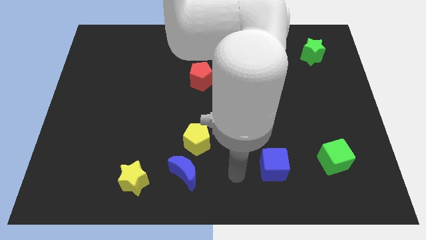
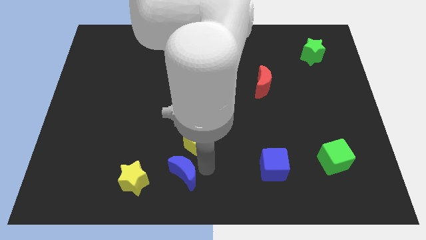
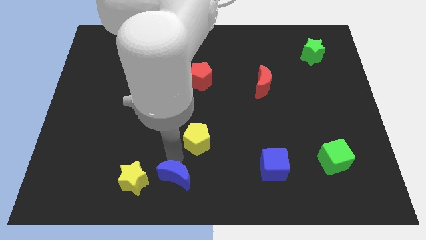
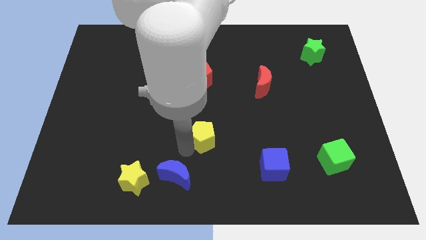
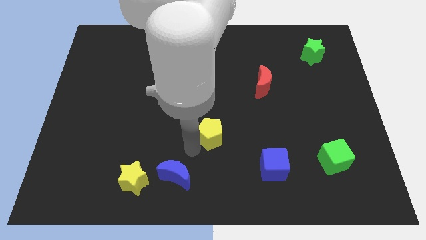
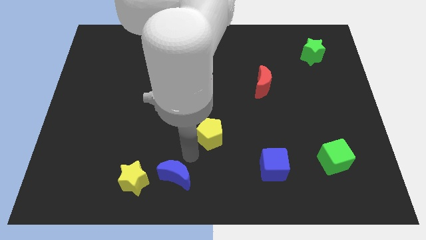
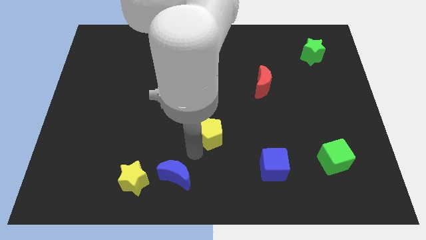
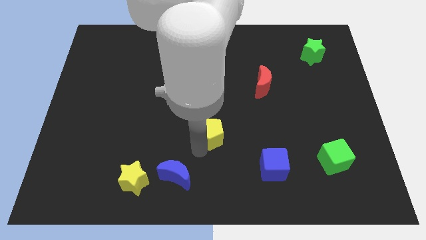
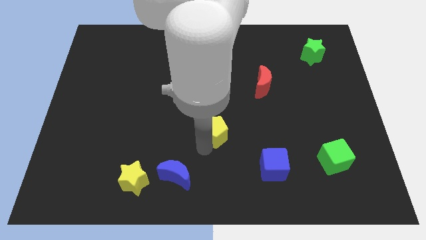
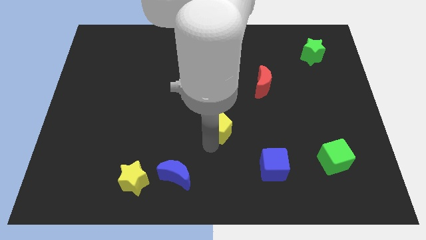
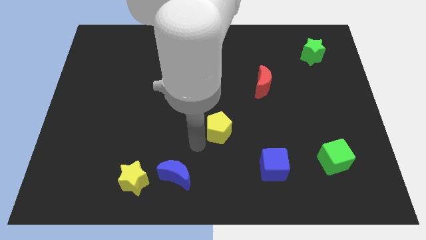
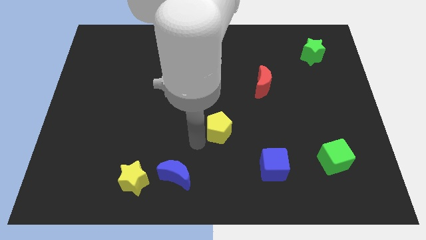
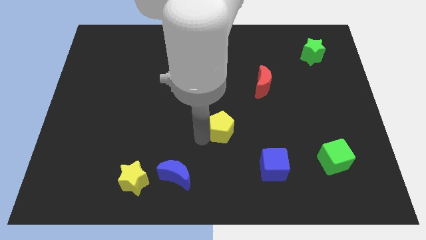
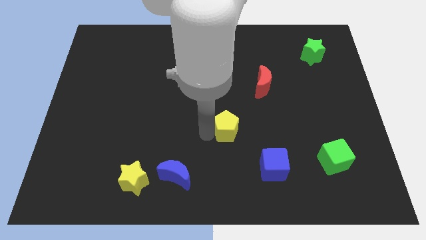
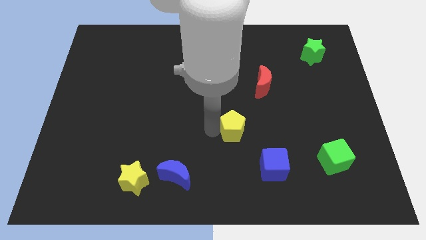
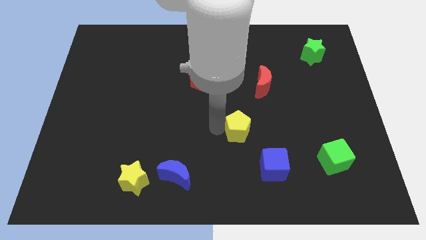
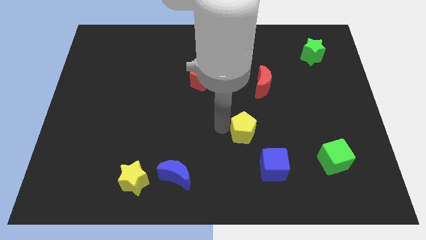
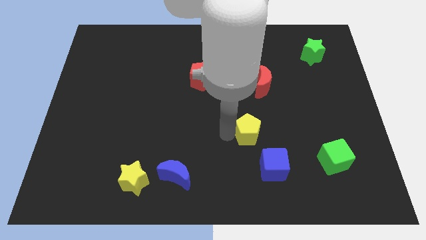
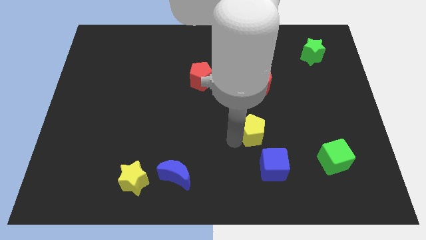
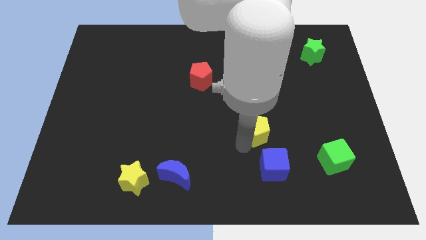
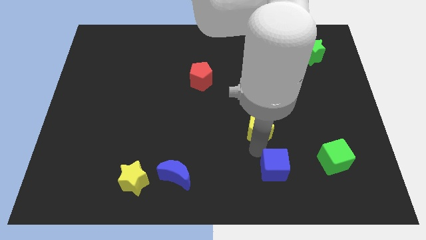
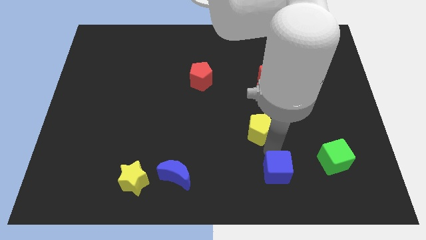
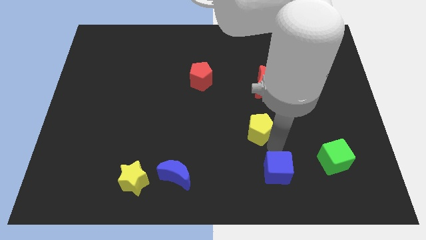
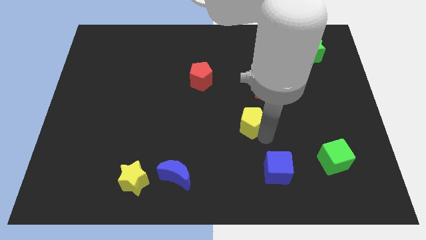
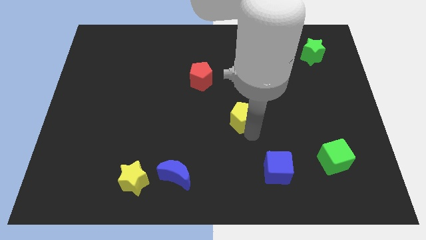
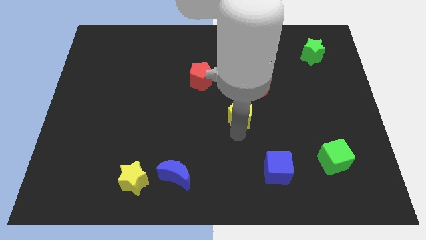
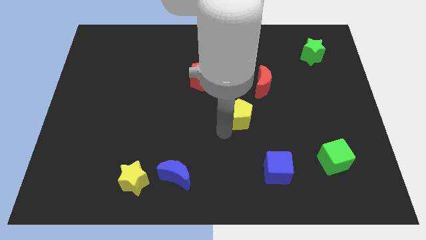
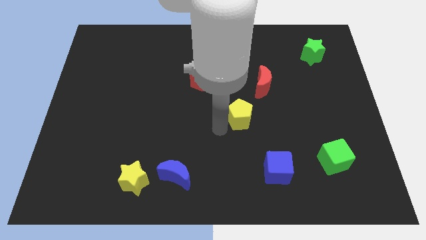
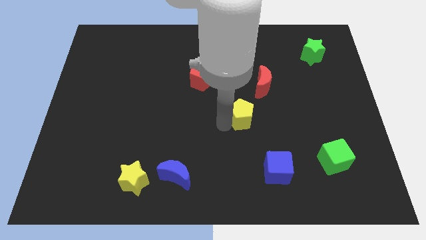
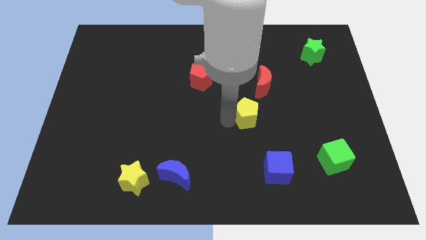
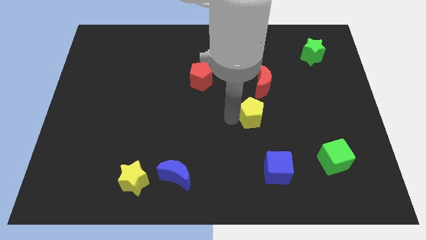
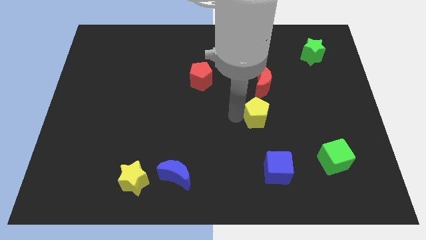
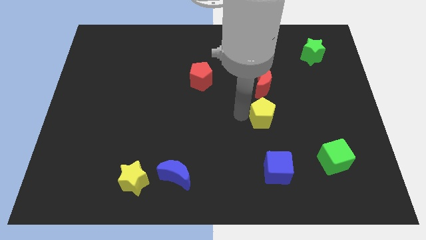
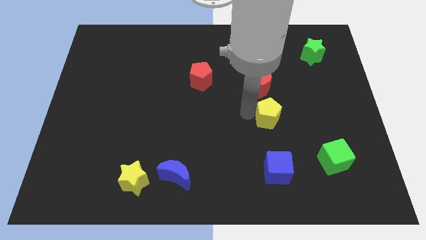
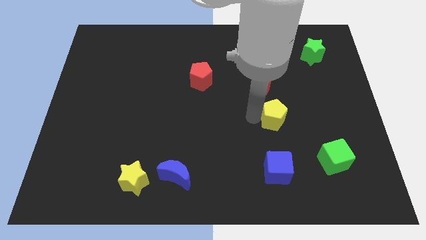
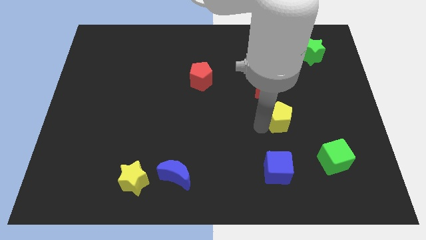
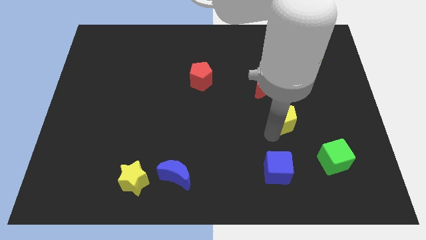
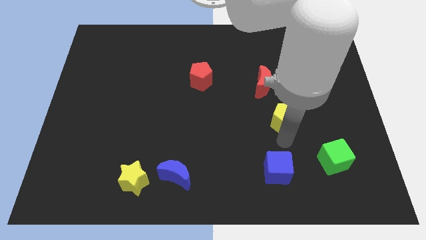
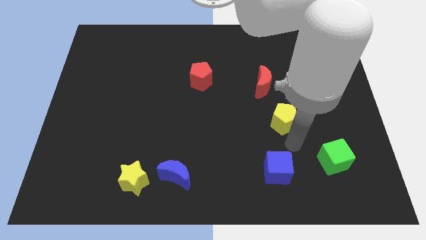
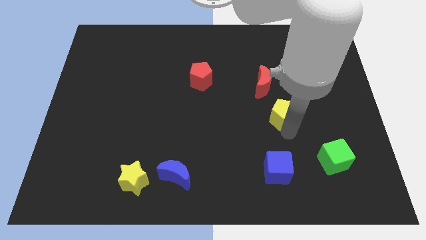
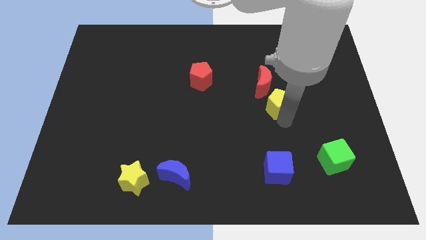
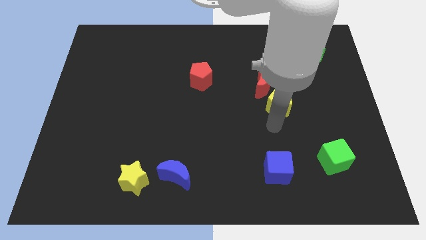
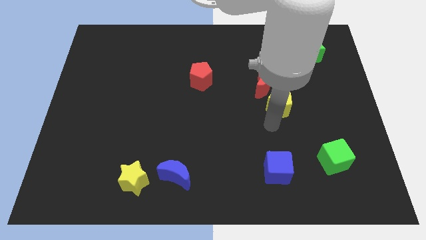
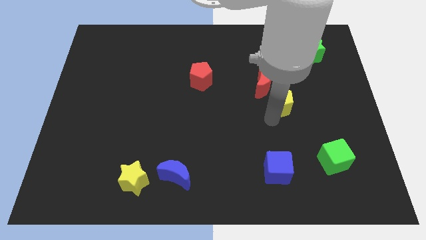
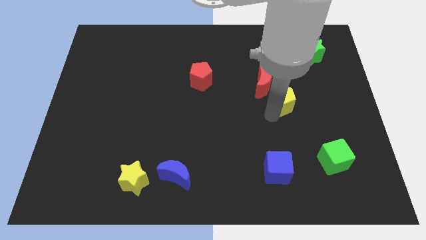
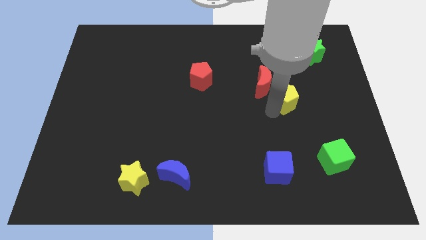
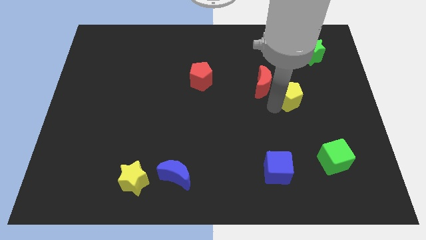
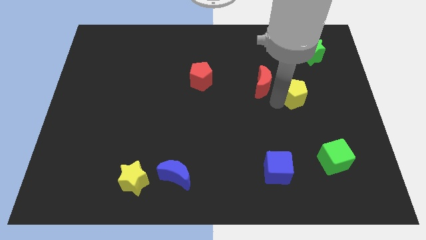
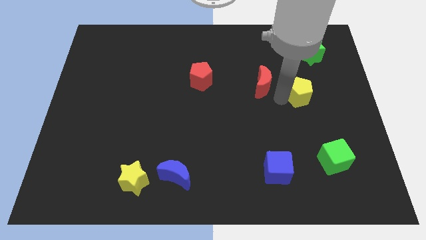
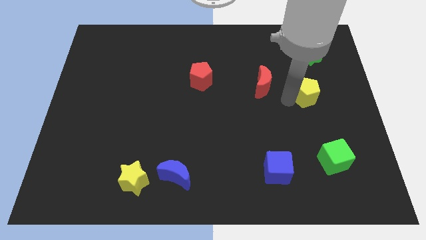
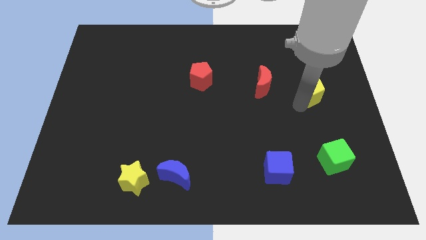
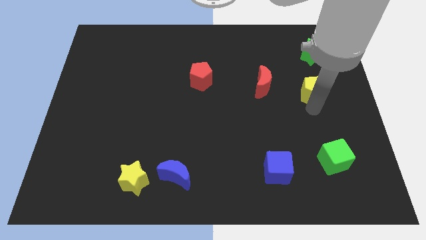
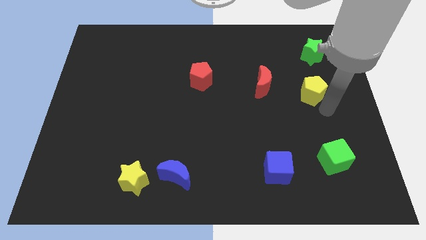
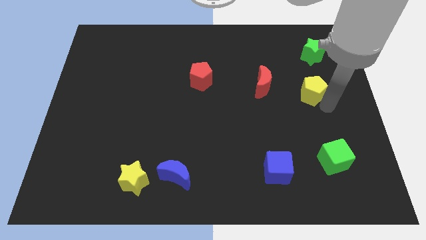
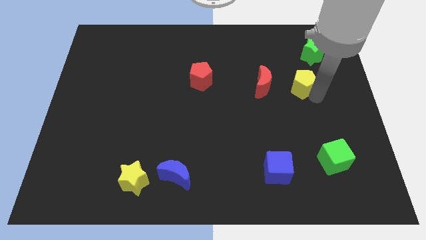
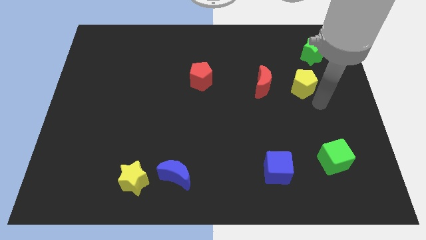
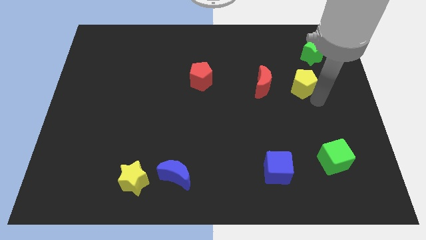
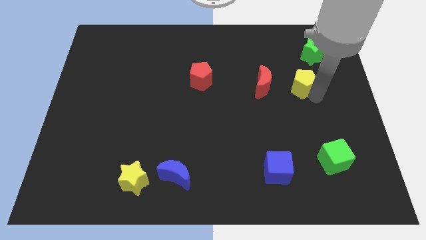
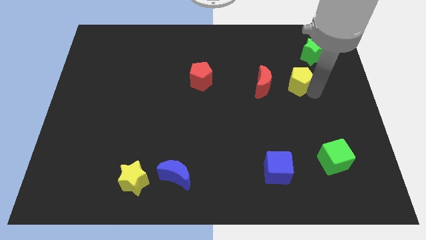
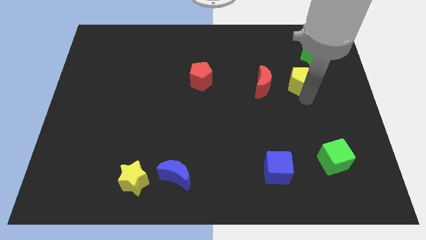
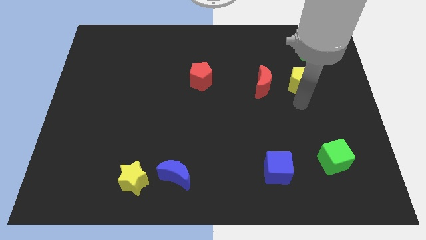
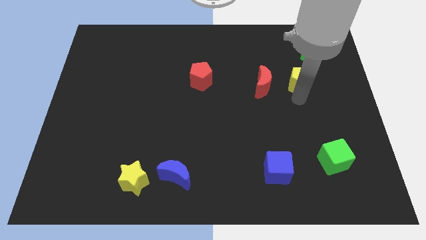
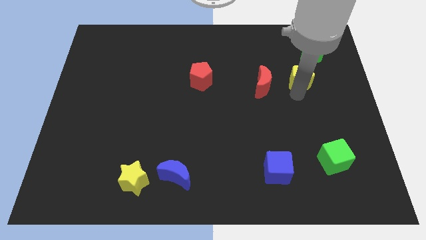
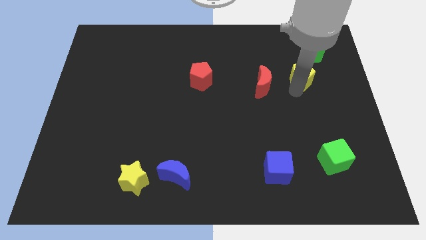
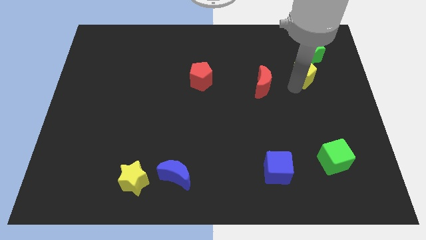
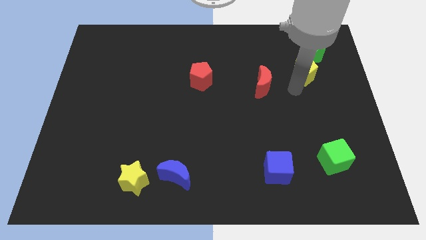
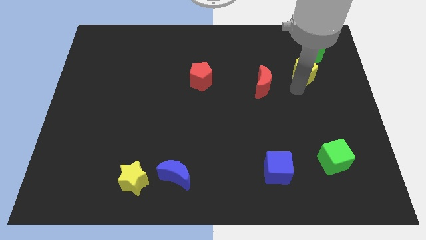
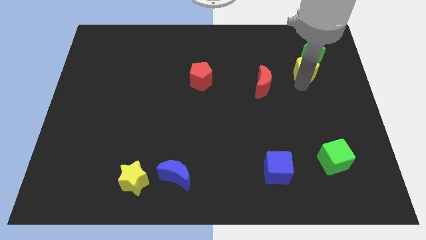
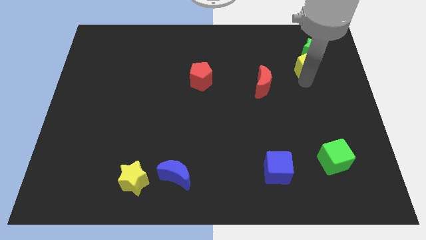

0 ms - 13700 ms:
push the yellow pentagon towards the green star
